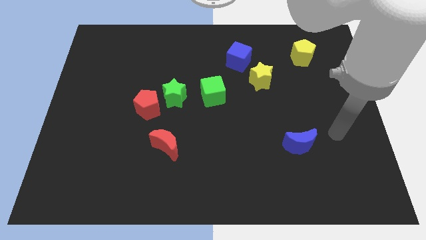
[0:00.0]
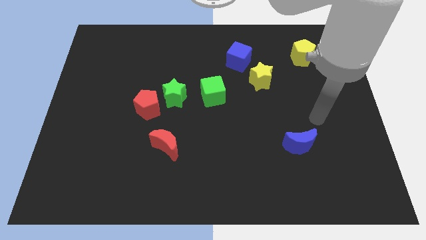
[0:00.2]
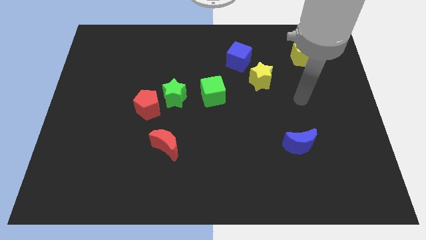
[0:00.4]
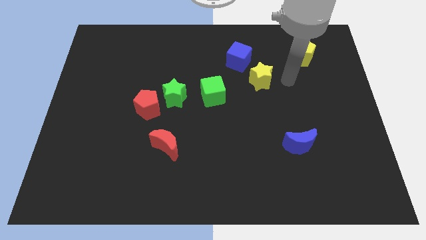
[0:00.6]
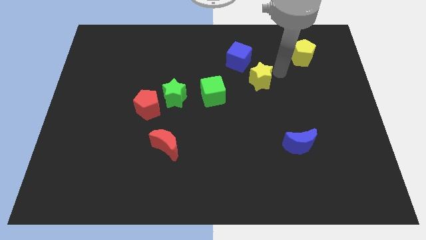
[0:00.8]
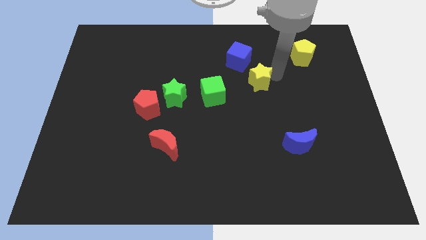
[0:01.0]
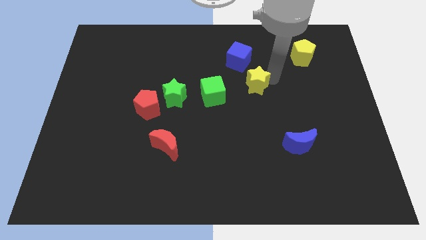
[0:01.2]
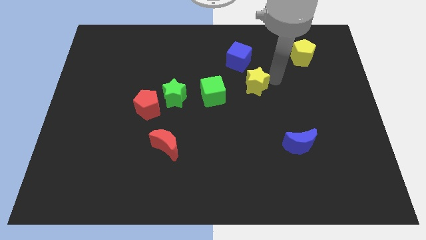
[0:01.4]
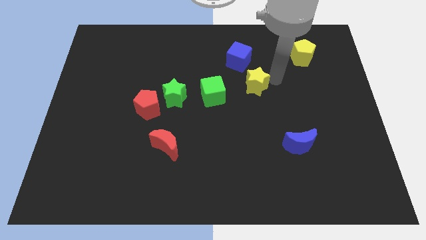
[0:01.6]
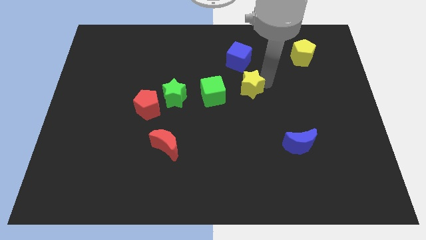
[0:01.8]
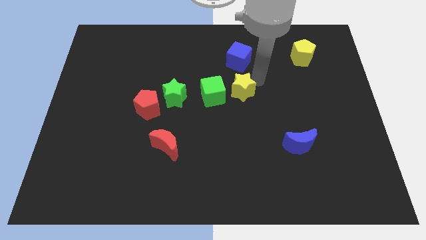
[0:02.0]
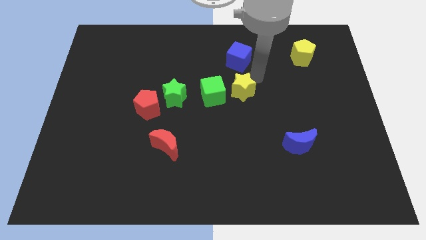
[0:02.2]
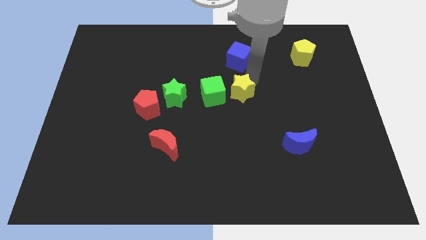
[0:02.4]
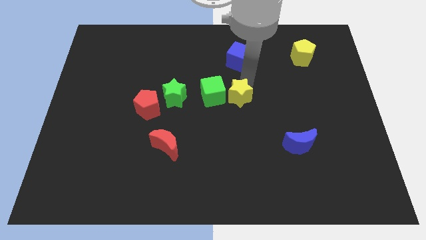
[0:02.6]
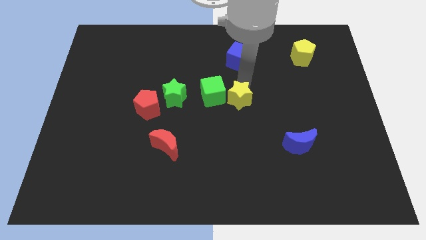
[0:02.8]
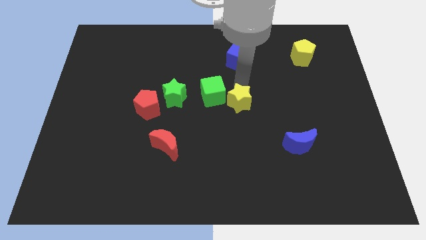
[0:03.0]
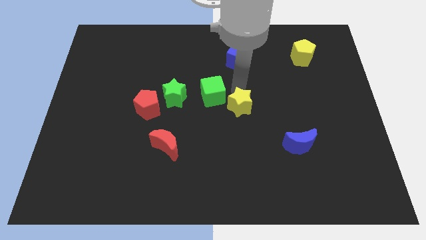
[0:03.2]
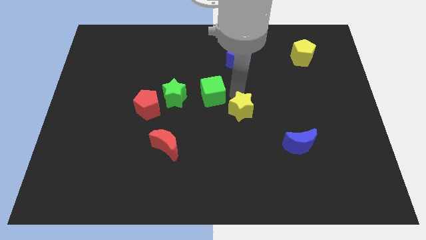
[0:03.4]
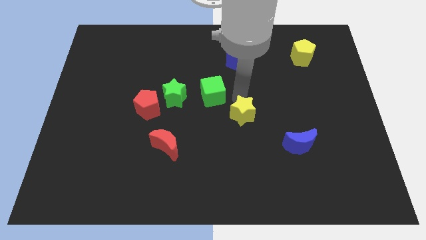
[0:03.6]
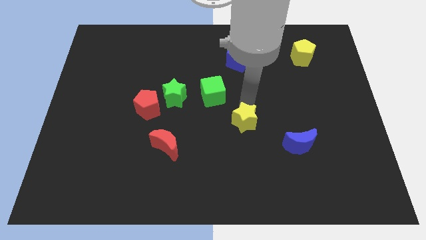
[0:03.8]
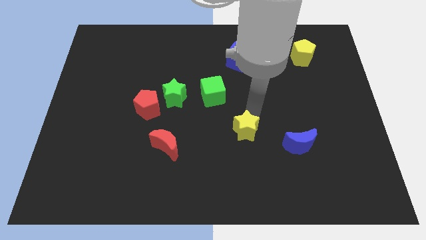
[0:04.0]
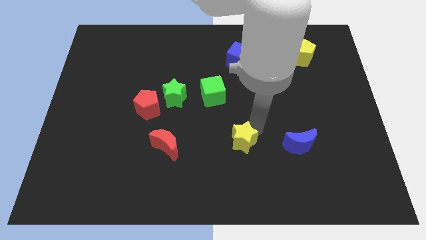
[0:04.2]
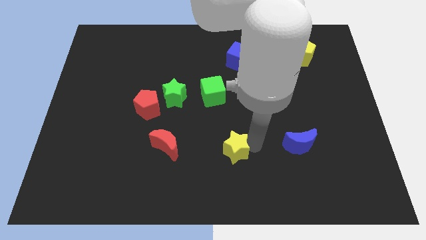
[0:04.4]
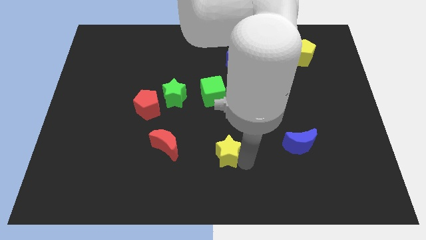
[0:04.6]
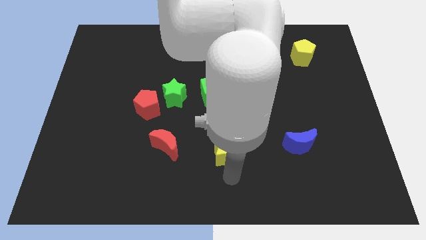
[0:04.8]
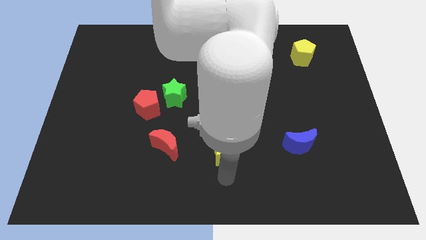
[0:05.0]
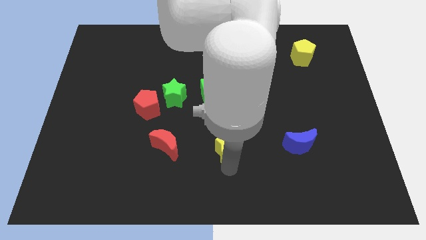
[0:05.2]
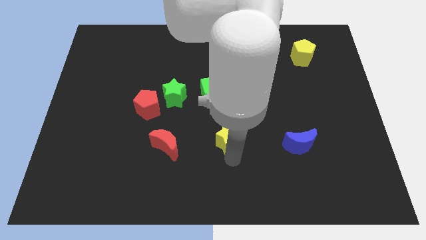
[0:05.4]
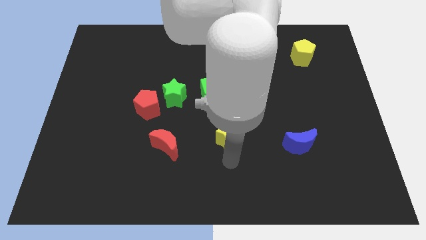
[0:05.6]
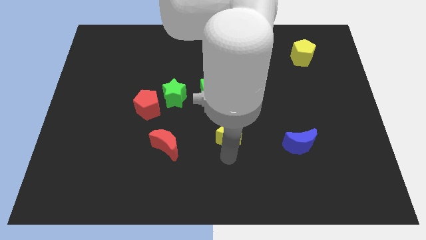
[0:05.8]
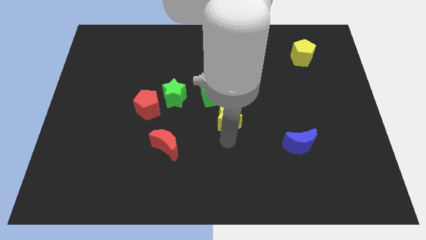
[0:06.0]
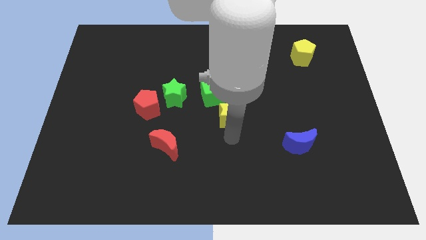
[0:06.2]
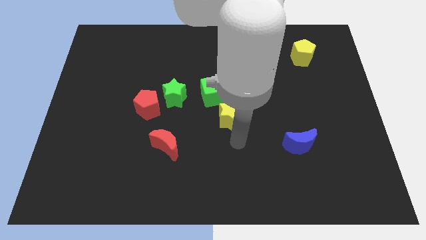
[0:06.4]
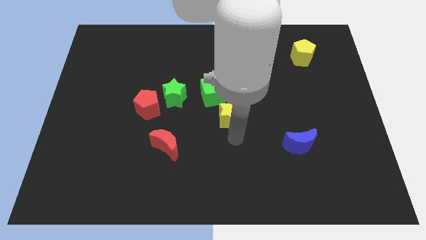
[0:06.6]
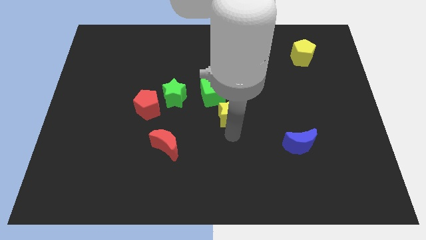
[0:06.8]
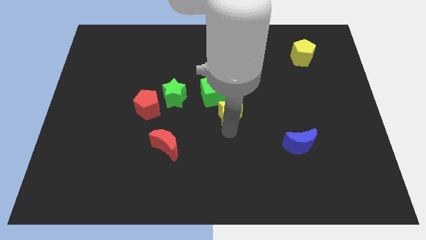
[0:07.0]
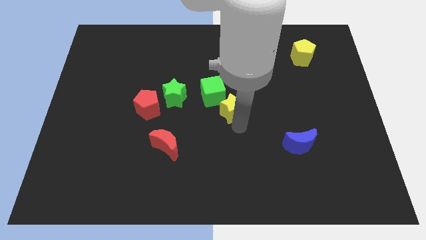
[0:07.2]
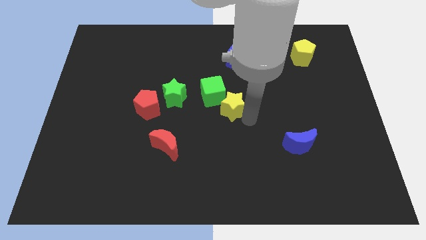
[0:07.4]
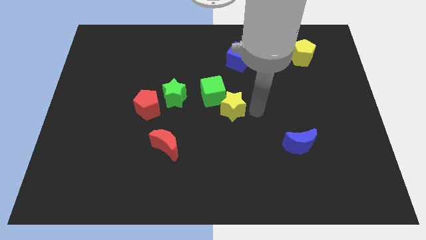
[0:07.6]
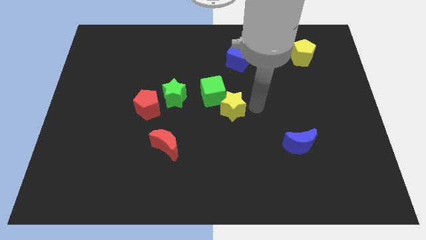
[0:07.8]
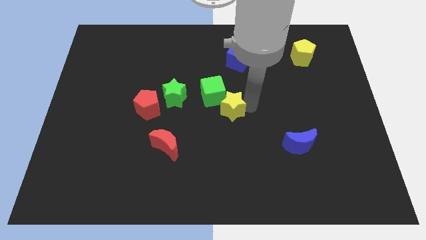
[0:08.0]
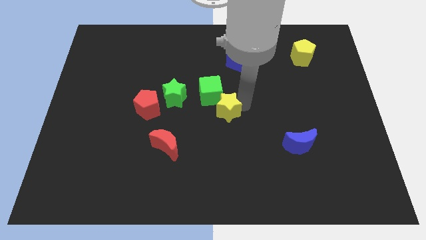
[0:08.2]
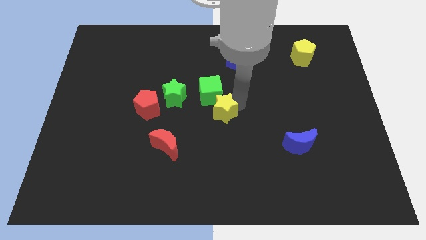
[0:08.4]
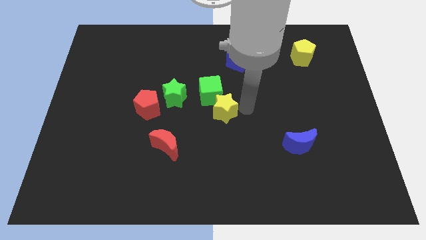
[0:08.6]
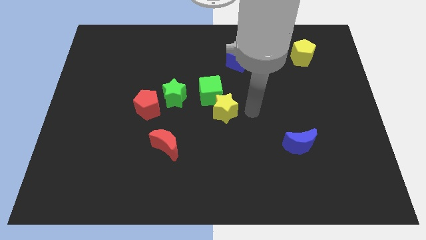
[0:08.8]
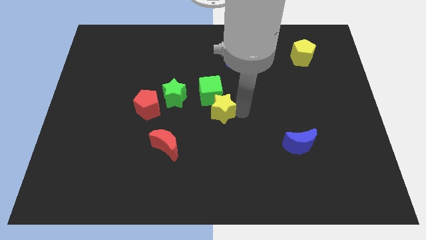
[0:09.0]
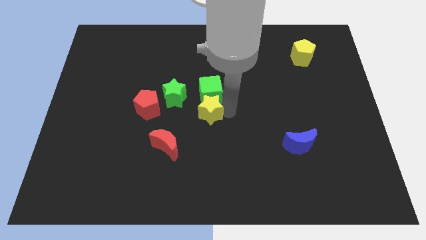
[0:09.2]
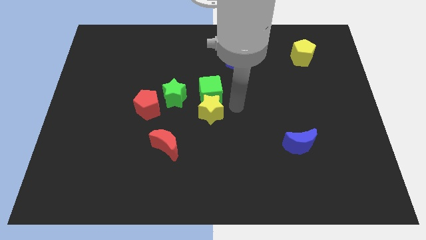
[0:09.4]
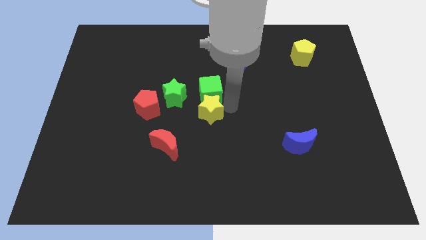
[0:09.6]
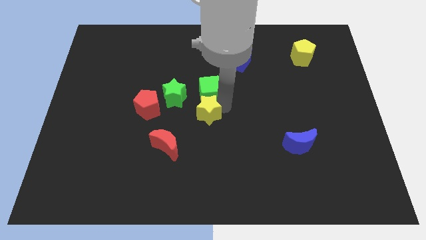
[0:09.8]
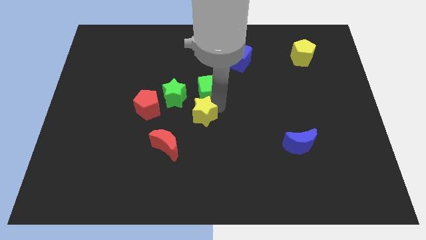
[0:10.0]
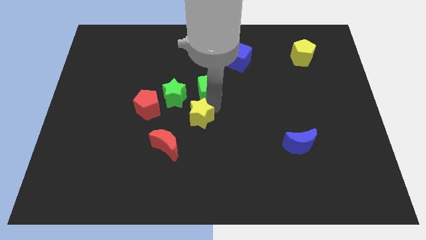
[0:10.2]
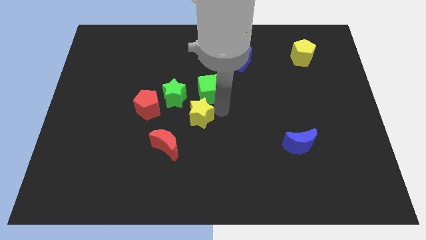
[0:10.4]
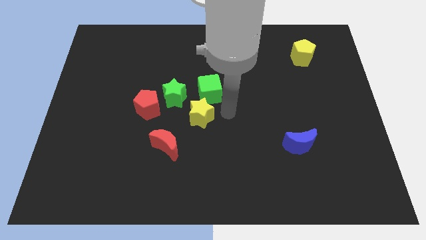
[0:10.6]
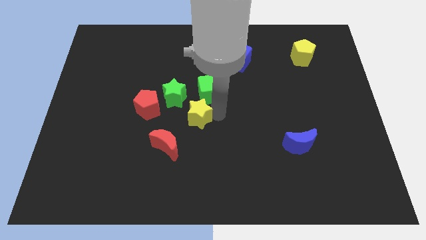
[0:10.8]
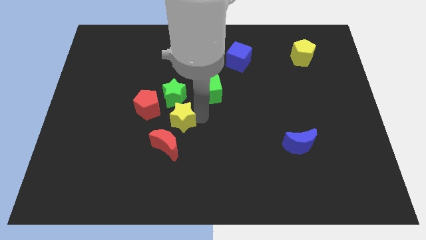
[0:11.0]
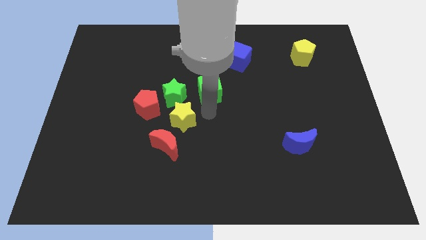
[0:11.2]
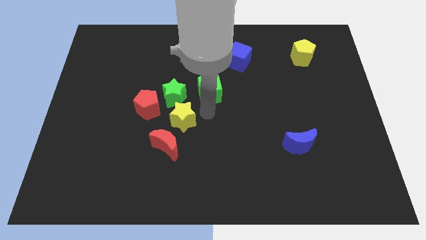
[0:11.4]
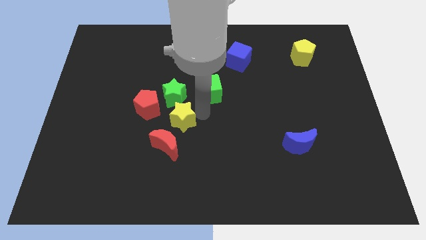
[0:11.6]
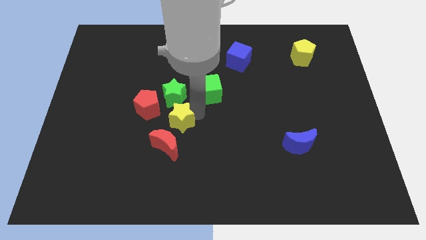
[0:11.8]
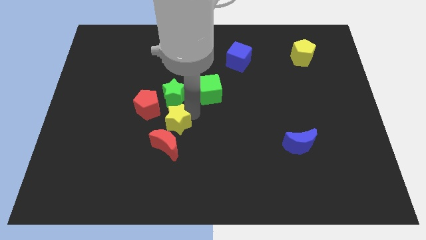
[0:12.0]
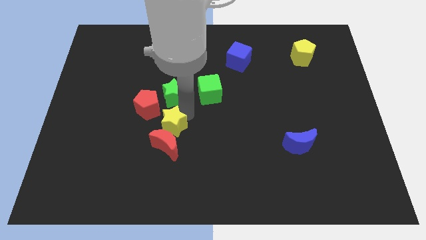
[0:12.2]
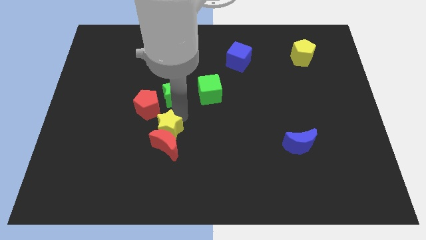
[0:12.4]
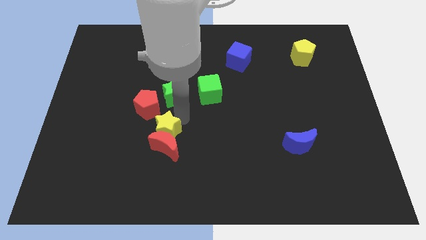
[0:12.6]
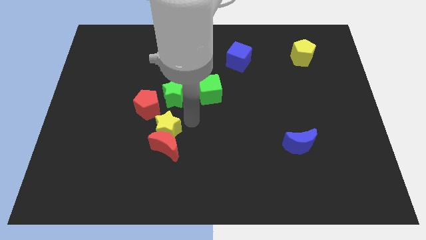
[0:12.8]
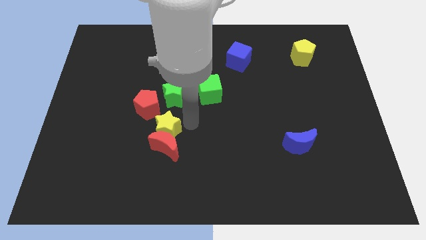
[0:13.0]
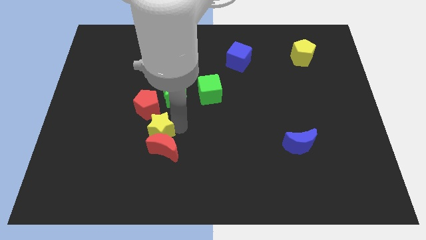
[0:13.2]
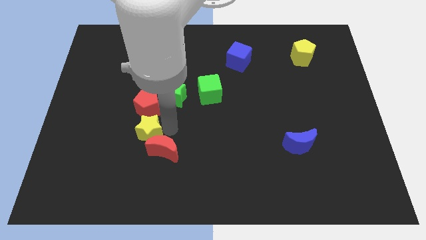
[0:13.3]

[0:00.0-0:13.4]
put the yellow star to the left of the red moon
